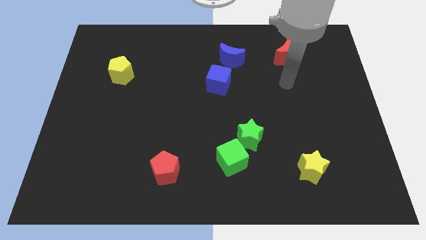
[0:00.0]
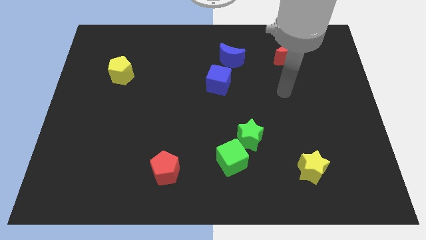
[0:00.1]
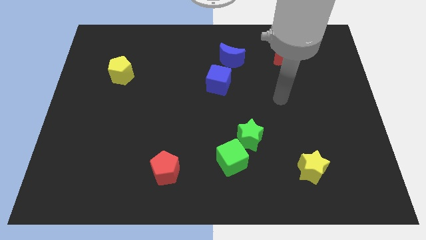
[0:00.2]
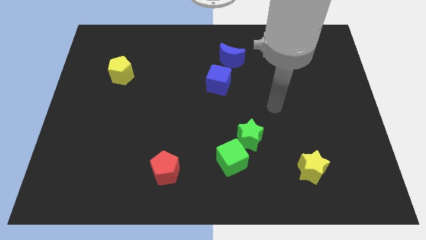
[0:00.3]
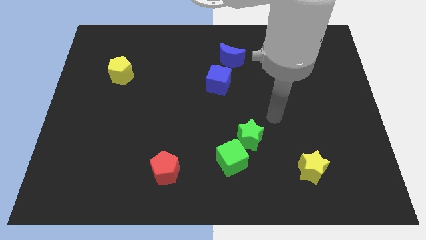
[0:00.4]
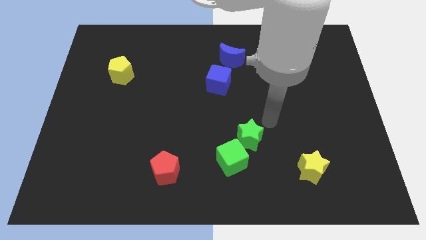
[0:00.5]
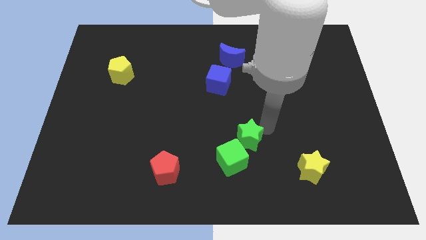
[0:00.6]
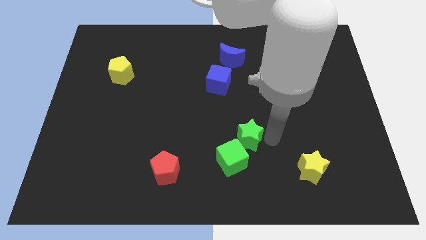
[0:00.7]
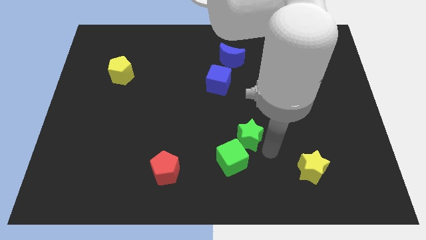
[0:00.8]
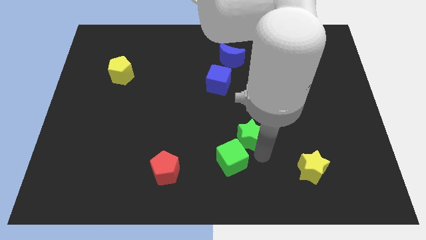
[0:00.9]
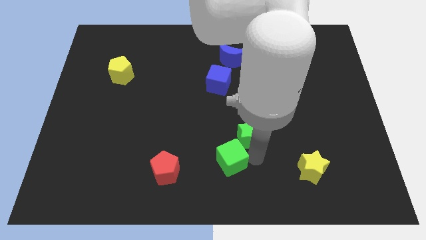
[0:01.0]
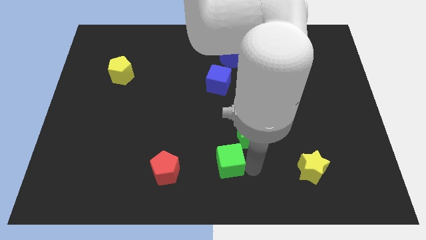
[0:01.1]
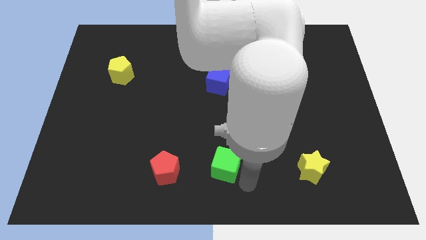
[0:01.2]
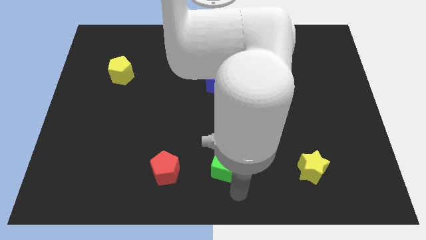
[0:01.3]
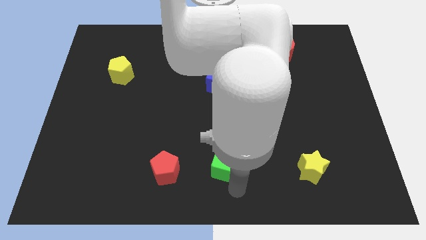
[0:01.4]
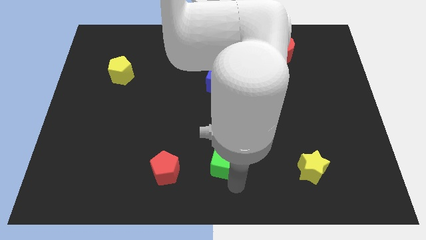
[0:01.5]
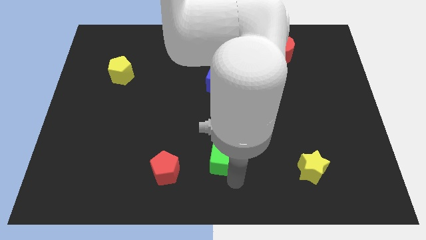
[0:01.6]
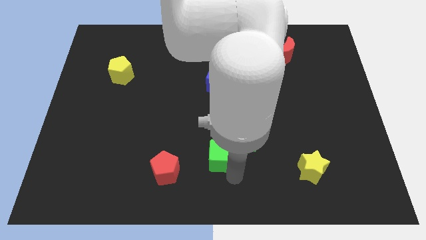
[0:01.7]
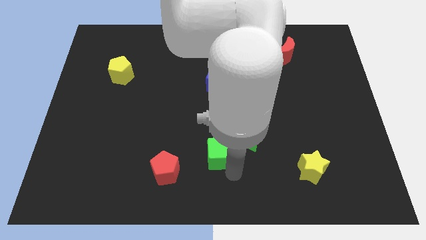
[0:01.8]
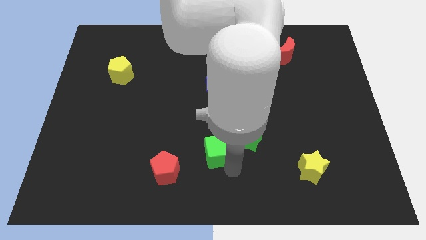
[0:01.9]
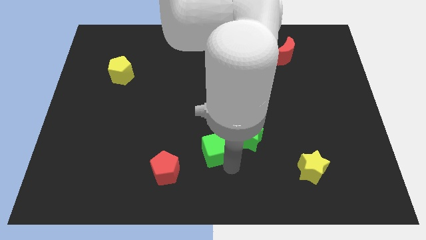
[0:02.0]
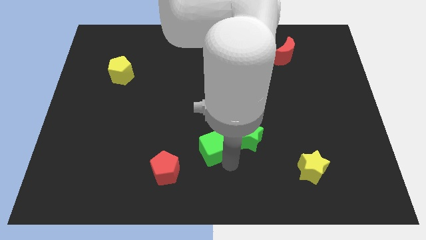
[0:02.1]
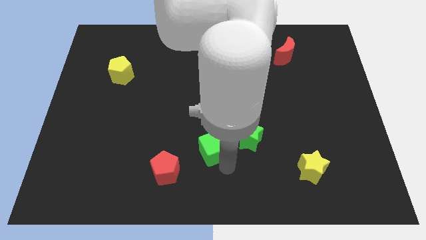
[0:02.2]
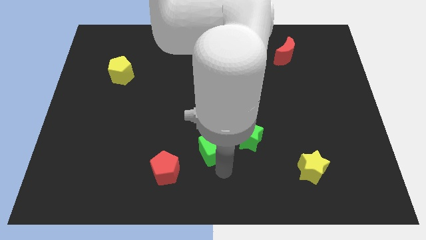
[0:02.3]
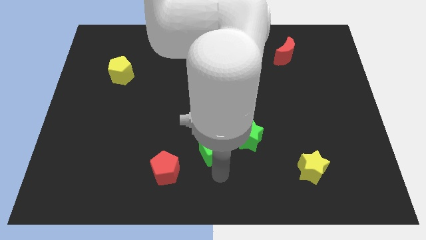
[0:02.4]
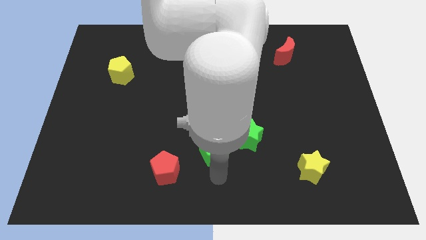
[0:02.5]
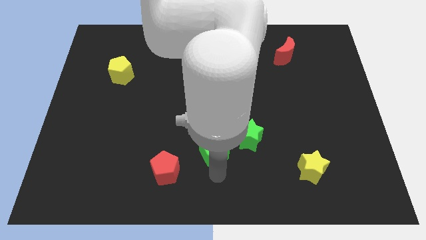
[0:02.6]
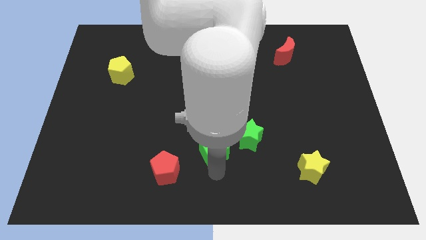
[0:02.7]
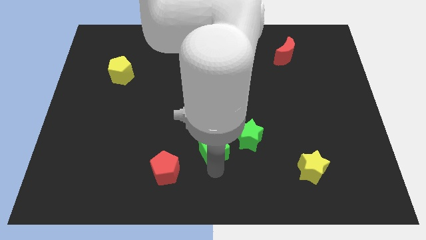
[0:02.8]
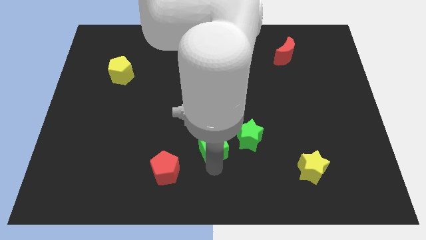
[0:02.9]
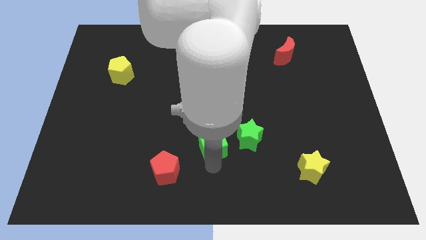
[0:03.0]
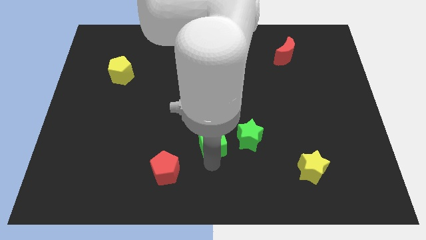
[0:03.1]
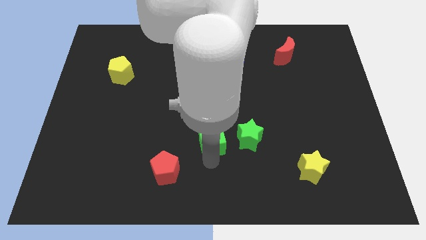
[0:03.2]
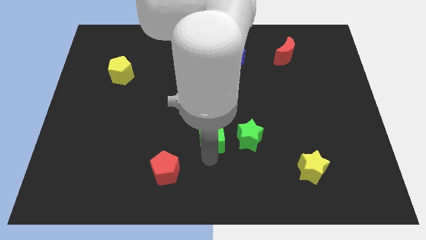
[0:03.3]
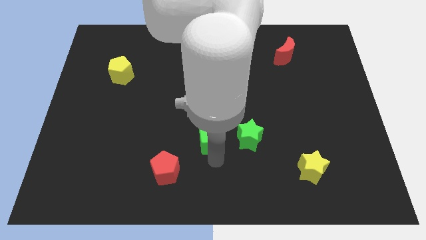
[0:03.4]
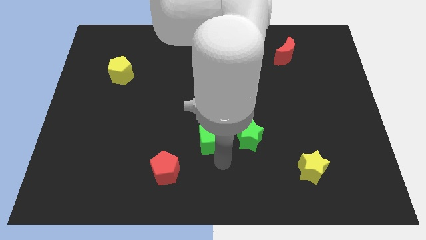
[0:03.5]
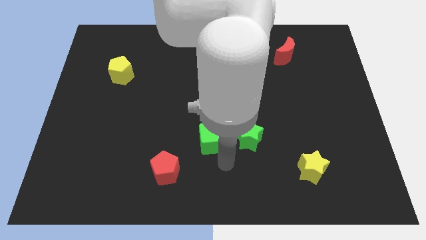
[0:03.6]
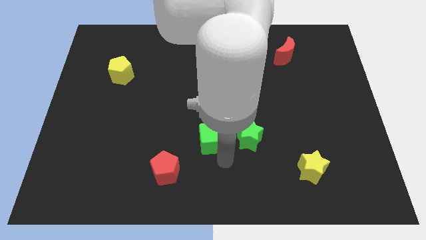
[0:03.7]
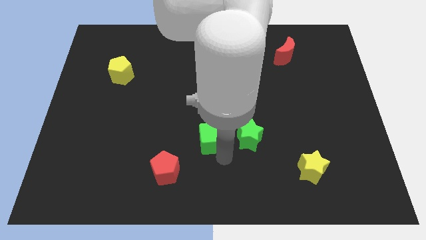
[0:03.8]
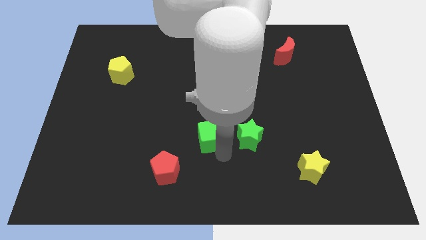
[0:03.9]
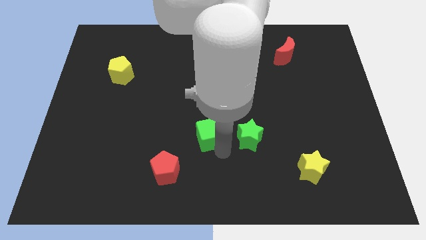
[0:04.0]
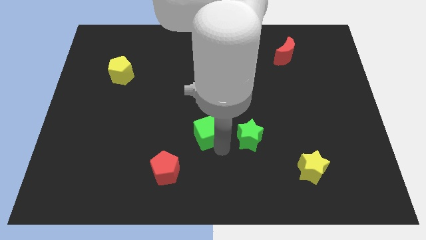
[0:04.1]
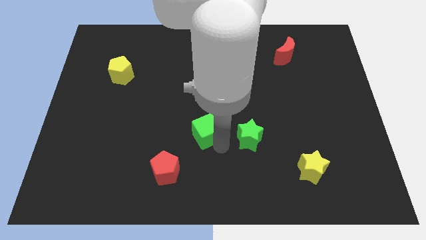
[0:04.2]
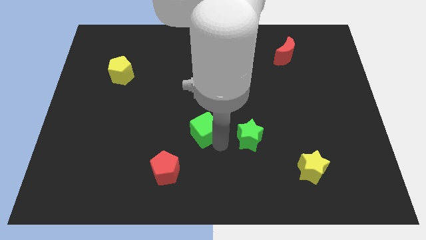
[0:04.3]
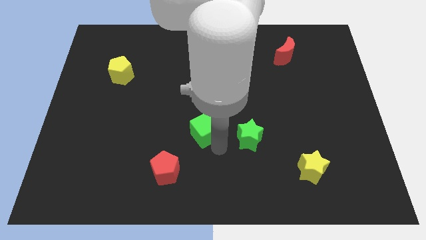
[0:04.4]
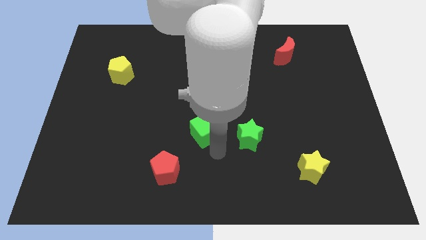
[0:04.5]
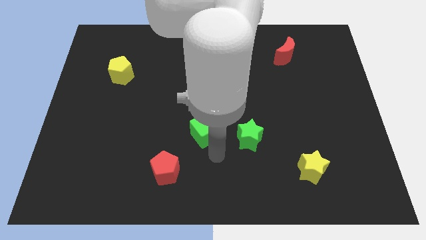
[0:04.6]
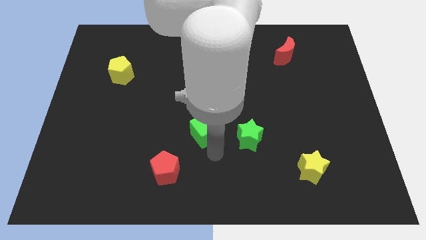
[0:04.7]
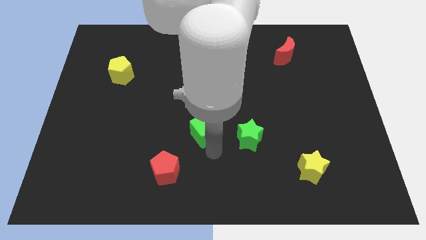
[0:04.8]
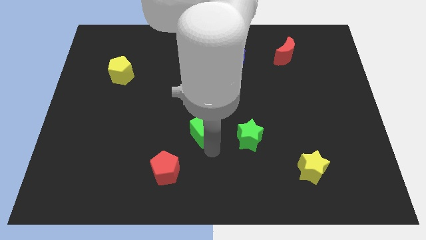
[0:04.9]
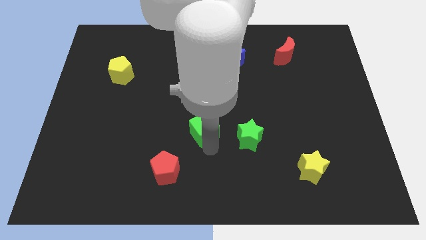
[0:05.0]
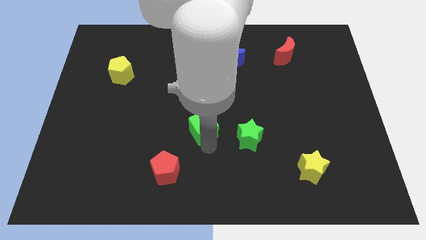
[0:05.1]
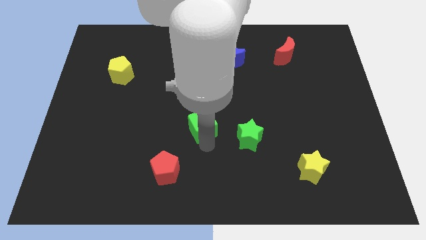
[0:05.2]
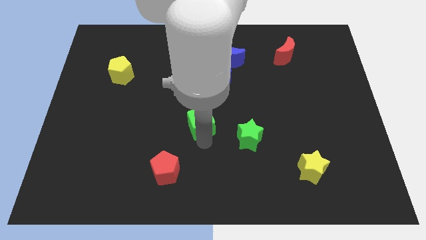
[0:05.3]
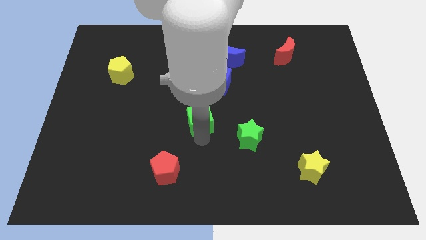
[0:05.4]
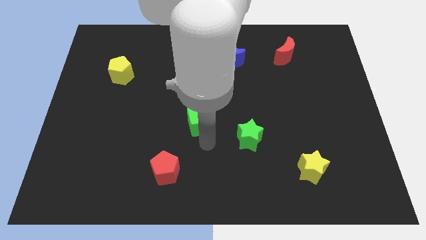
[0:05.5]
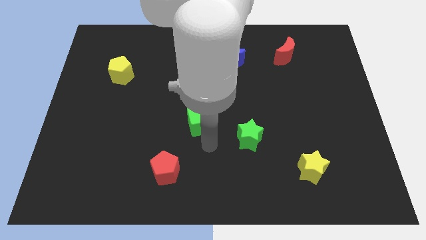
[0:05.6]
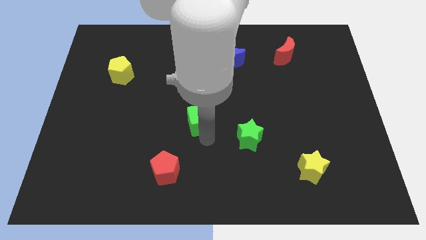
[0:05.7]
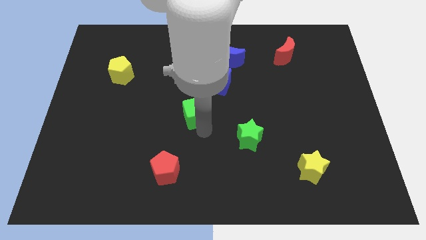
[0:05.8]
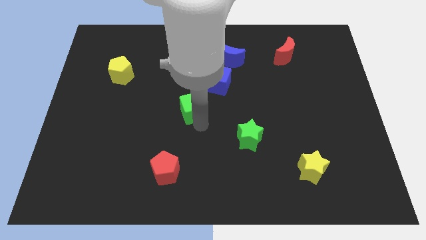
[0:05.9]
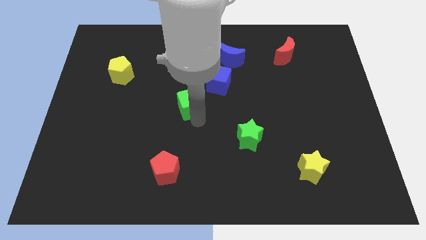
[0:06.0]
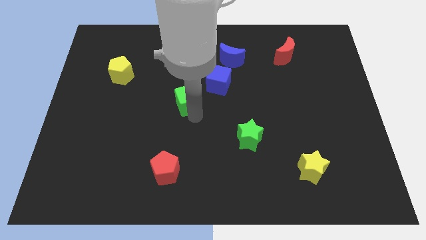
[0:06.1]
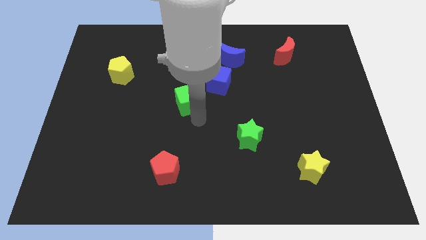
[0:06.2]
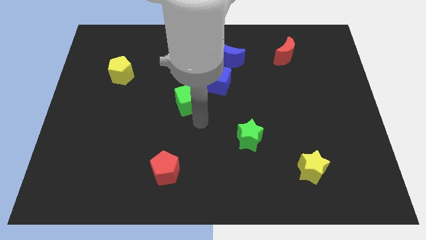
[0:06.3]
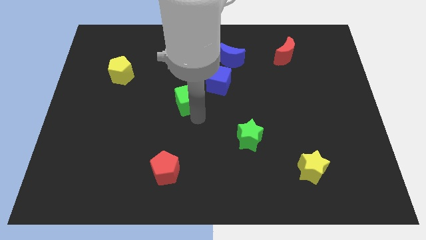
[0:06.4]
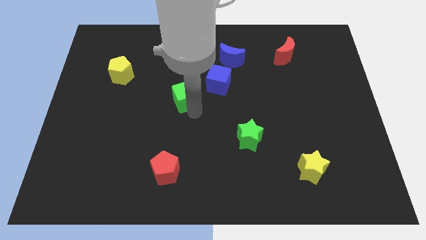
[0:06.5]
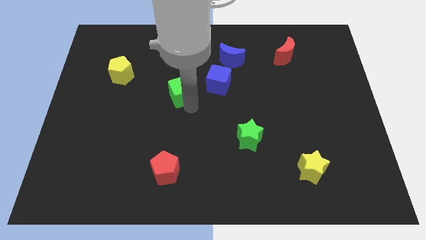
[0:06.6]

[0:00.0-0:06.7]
put the green cube to the left of the blue cube

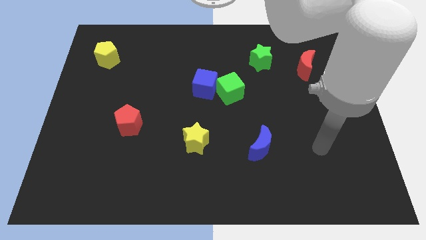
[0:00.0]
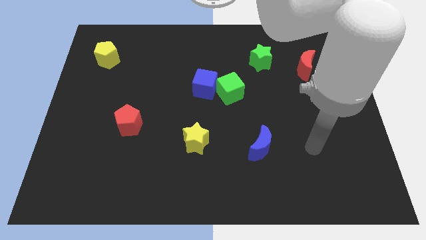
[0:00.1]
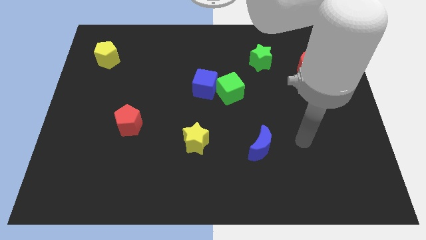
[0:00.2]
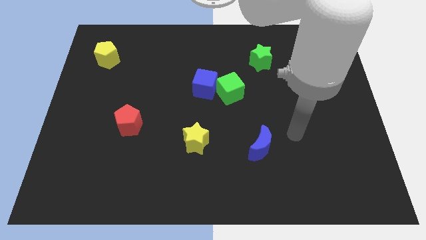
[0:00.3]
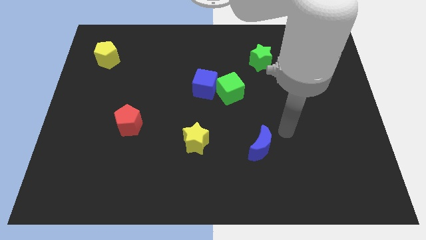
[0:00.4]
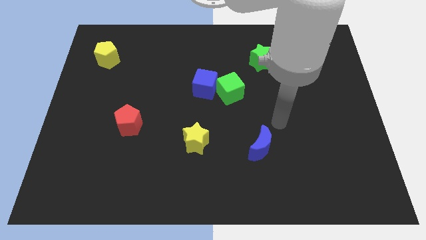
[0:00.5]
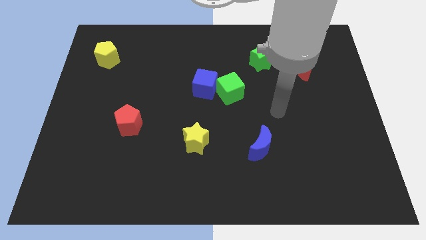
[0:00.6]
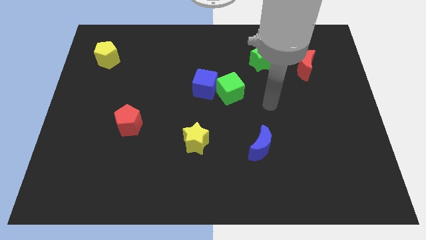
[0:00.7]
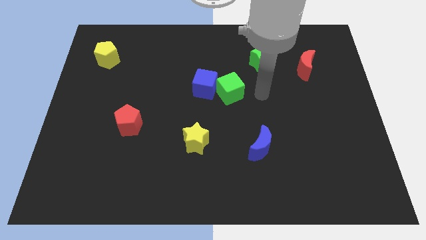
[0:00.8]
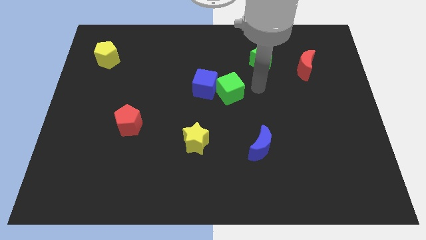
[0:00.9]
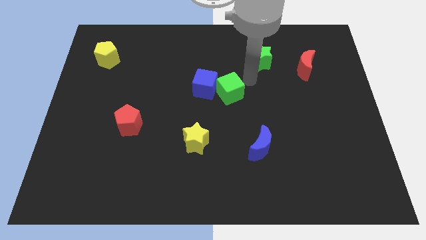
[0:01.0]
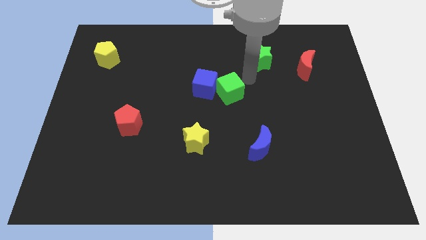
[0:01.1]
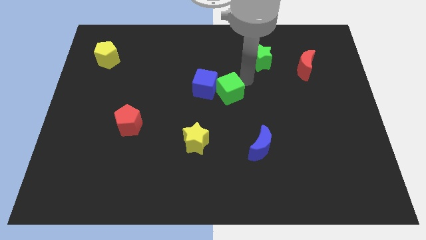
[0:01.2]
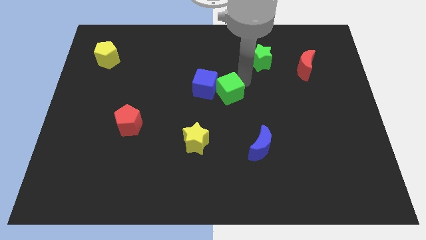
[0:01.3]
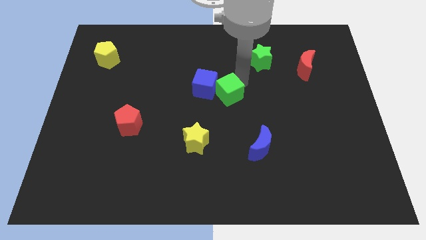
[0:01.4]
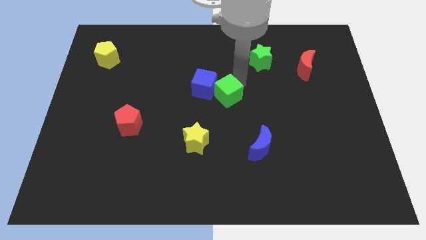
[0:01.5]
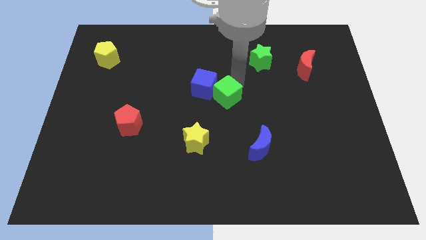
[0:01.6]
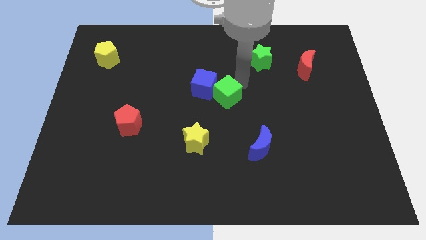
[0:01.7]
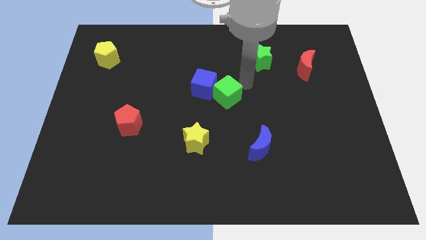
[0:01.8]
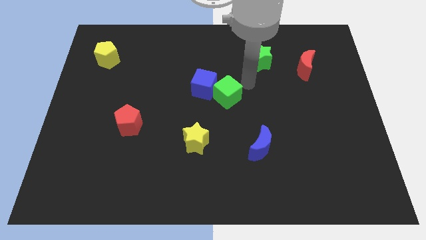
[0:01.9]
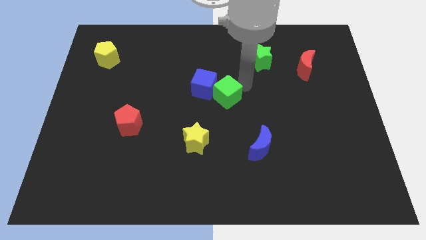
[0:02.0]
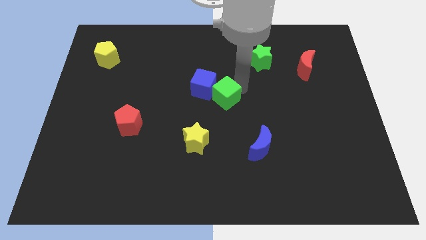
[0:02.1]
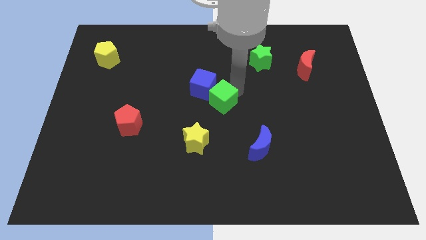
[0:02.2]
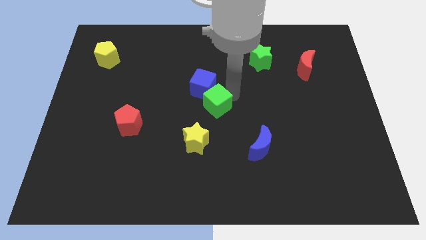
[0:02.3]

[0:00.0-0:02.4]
move the green cube above the yellow star
